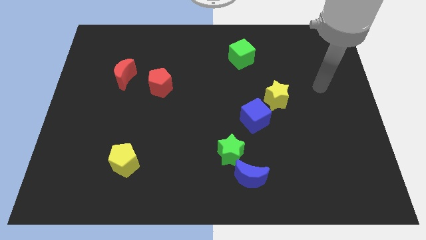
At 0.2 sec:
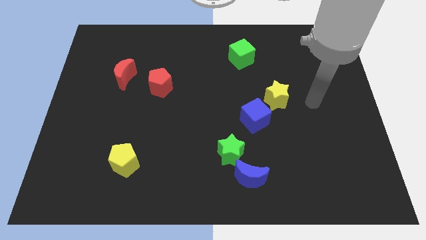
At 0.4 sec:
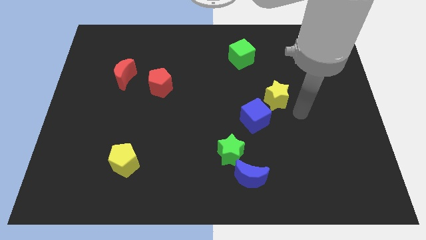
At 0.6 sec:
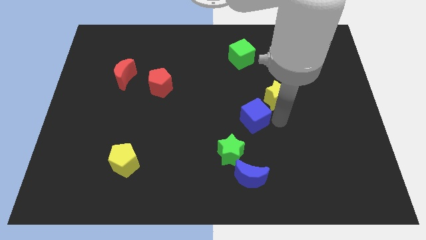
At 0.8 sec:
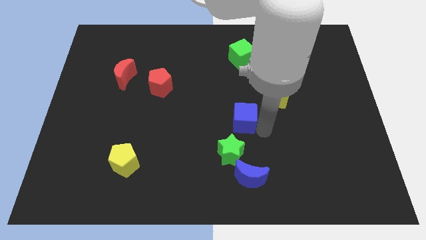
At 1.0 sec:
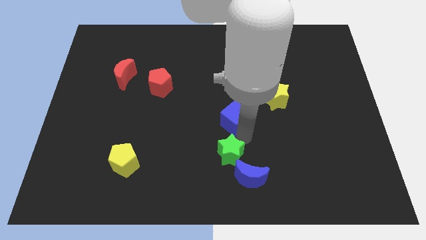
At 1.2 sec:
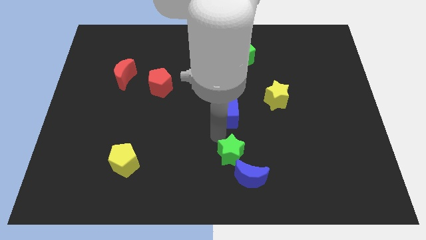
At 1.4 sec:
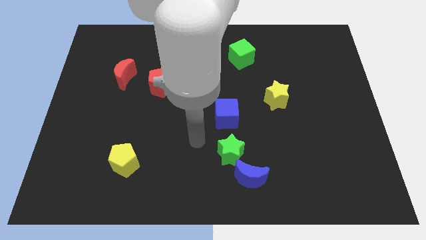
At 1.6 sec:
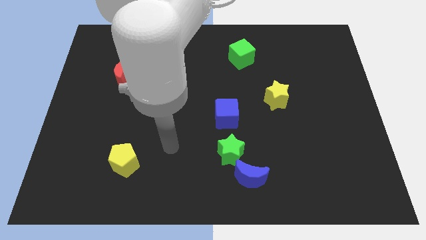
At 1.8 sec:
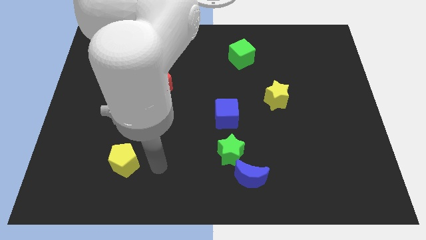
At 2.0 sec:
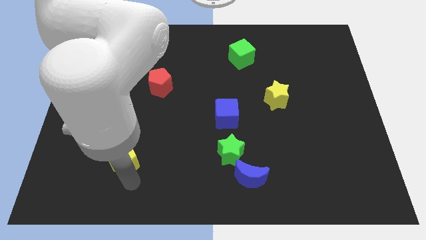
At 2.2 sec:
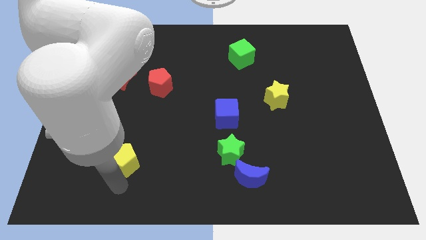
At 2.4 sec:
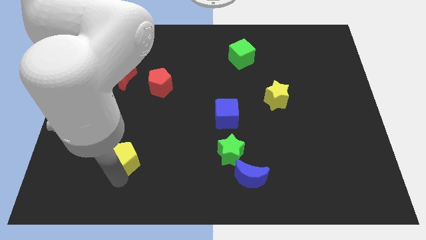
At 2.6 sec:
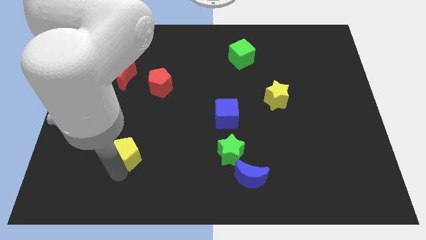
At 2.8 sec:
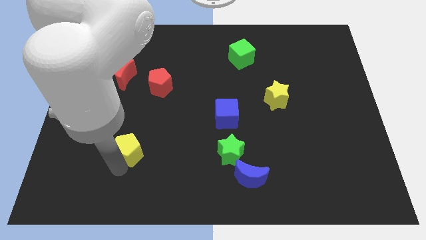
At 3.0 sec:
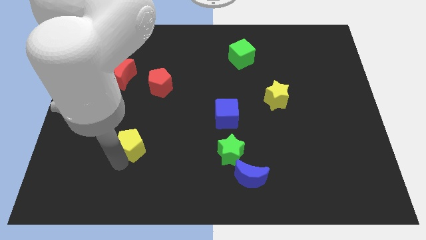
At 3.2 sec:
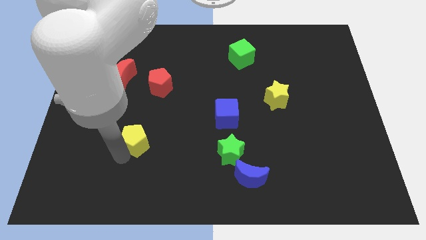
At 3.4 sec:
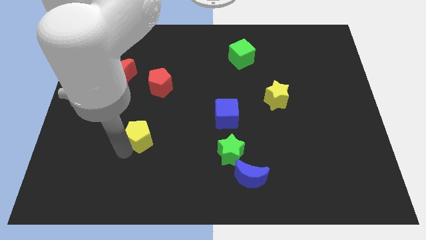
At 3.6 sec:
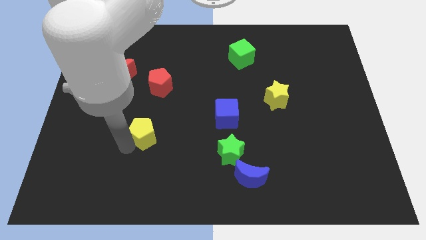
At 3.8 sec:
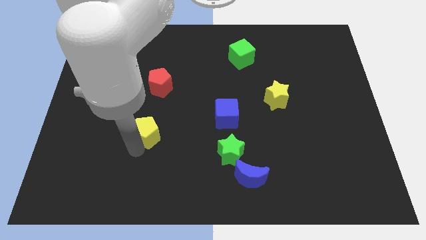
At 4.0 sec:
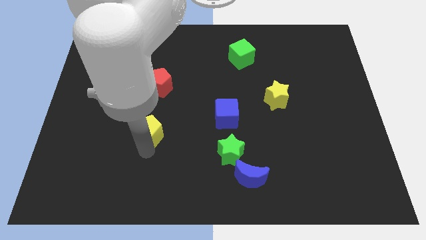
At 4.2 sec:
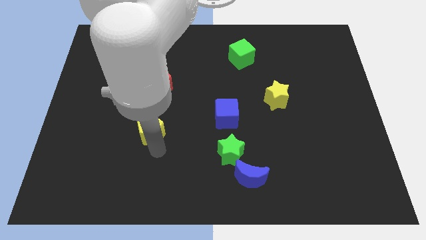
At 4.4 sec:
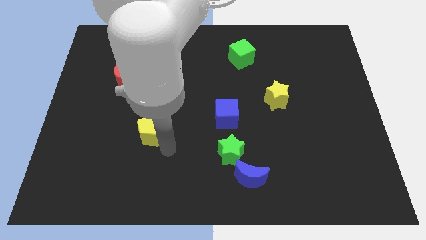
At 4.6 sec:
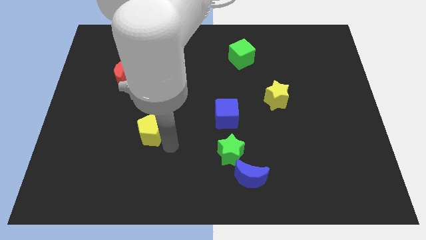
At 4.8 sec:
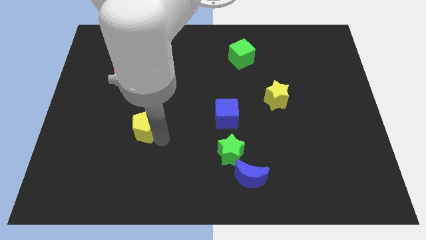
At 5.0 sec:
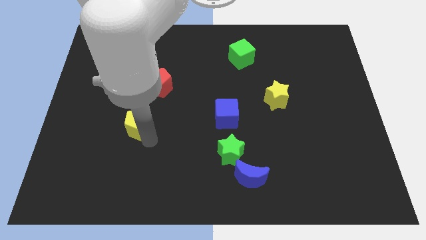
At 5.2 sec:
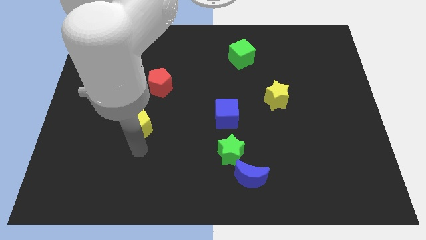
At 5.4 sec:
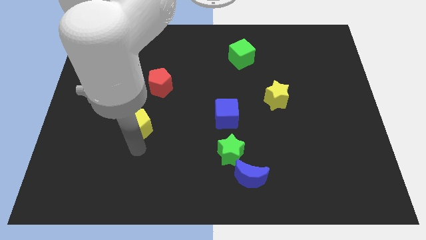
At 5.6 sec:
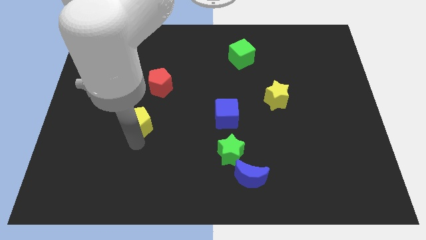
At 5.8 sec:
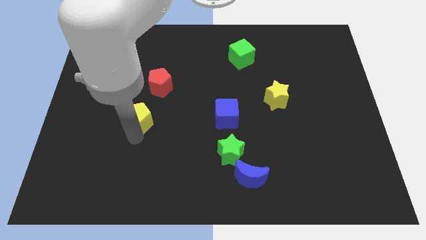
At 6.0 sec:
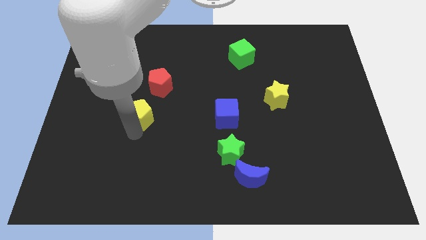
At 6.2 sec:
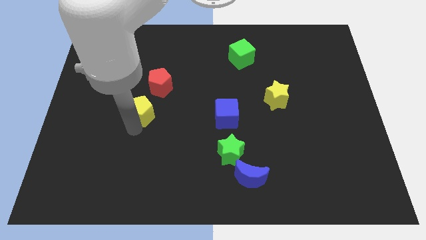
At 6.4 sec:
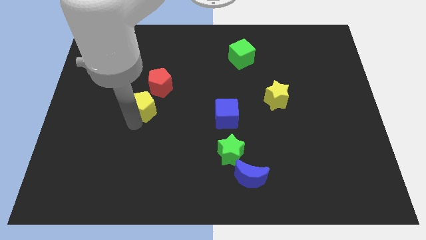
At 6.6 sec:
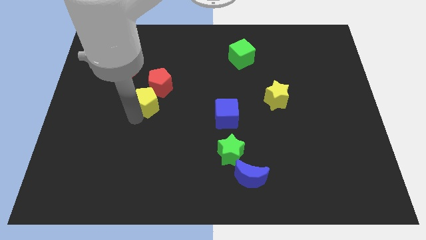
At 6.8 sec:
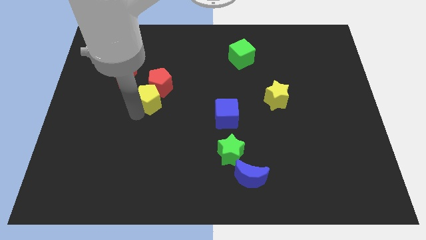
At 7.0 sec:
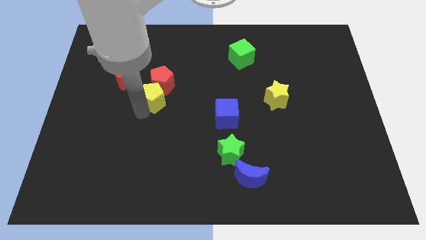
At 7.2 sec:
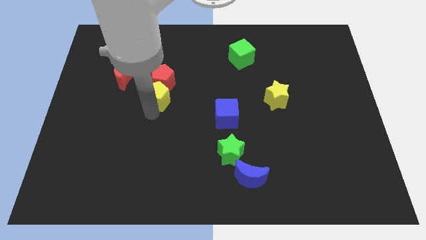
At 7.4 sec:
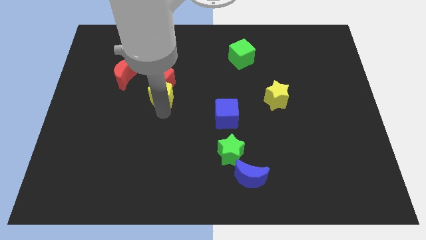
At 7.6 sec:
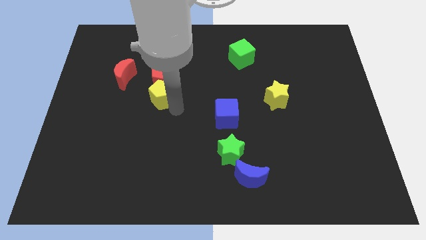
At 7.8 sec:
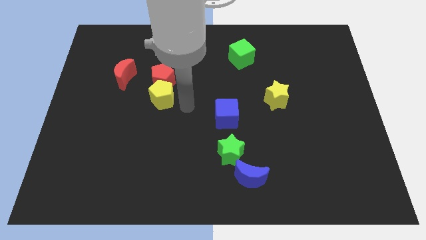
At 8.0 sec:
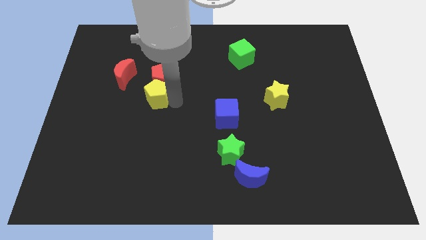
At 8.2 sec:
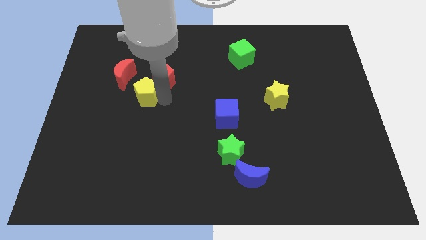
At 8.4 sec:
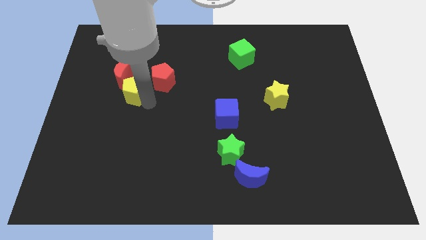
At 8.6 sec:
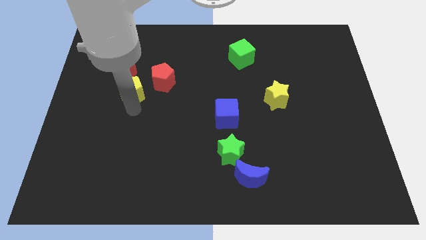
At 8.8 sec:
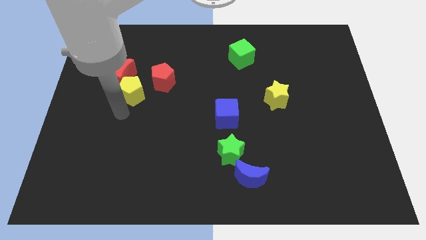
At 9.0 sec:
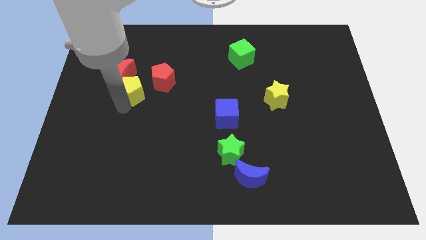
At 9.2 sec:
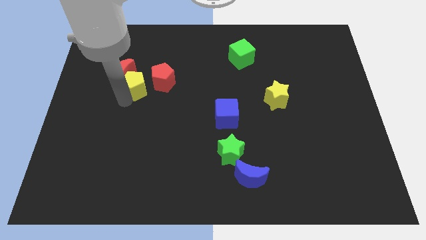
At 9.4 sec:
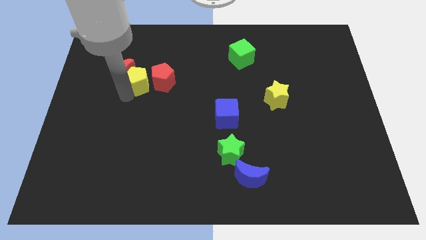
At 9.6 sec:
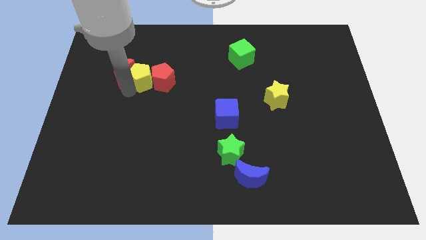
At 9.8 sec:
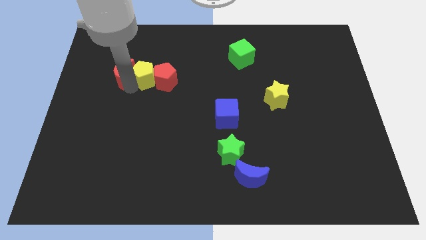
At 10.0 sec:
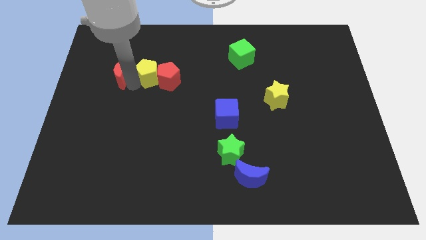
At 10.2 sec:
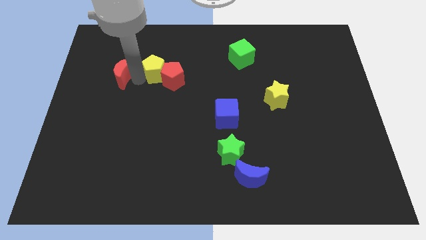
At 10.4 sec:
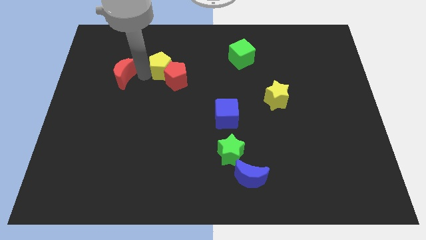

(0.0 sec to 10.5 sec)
push the yellow pentagon above the red pentagon

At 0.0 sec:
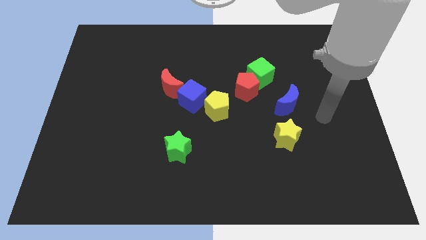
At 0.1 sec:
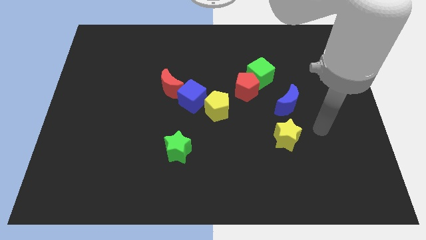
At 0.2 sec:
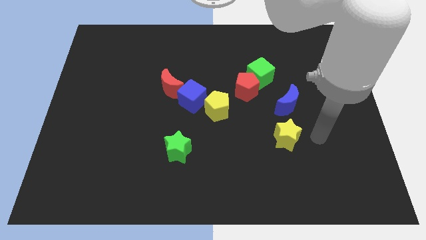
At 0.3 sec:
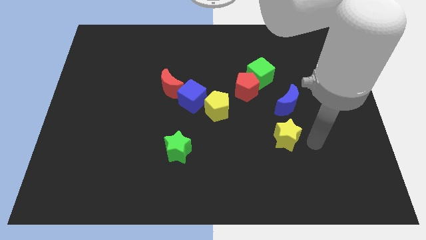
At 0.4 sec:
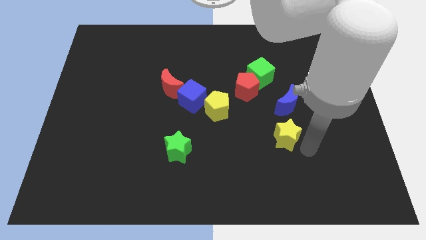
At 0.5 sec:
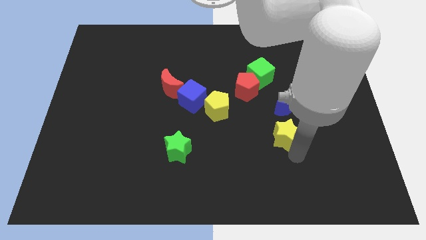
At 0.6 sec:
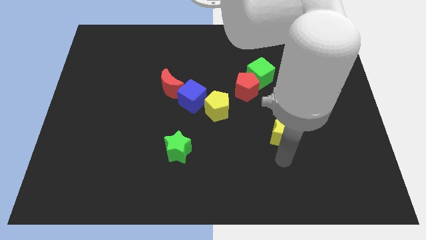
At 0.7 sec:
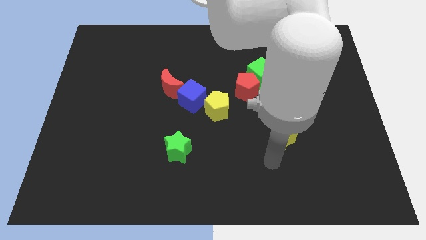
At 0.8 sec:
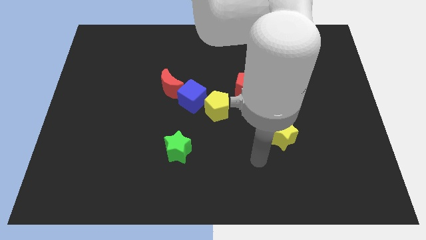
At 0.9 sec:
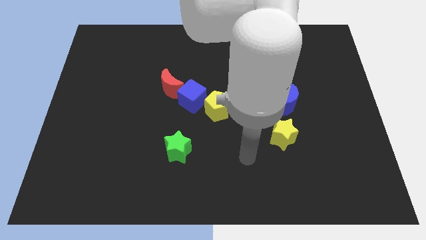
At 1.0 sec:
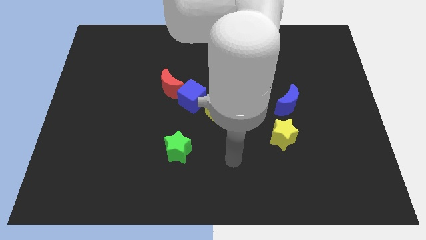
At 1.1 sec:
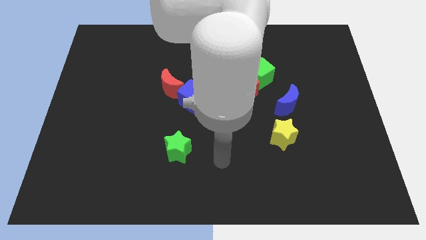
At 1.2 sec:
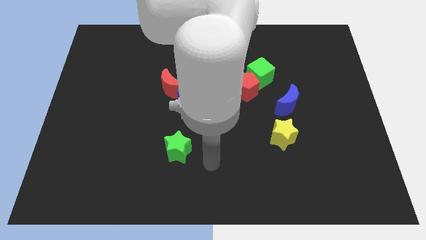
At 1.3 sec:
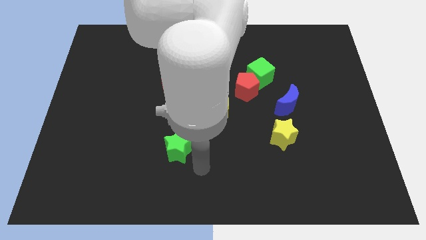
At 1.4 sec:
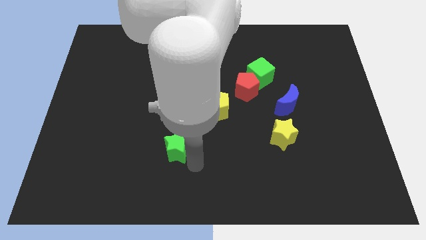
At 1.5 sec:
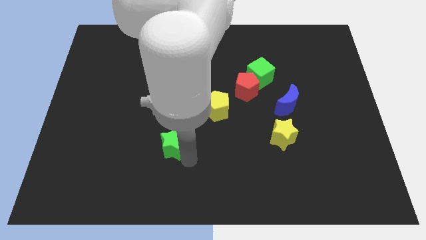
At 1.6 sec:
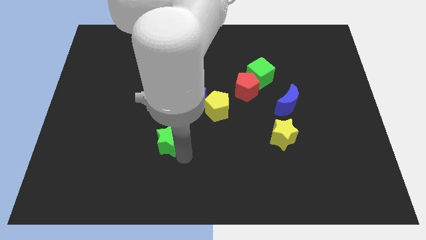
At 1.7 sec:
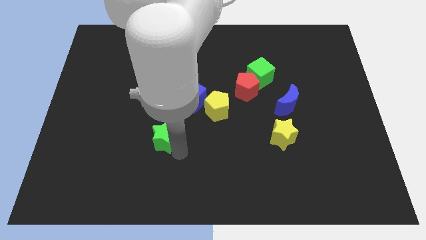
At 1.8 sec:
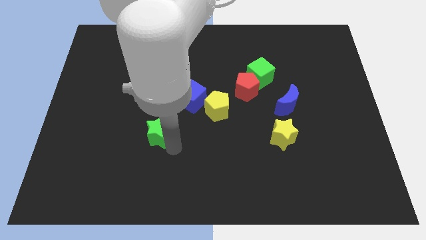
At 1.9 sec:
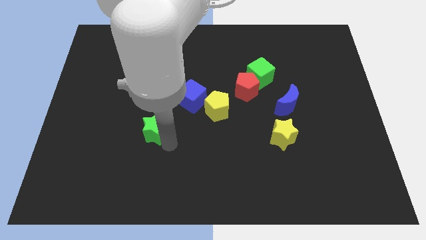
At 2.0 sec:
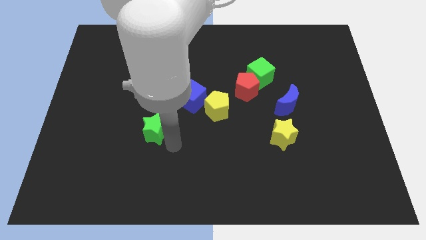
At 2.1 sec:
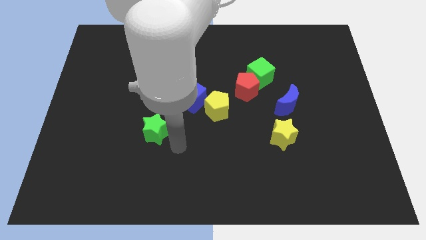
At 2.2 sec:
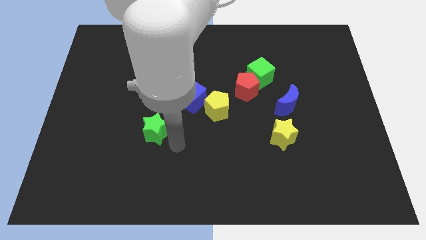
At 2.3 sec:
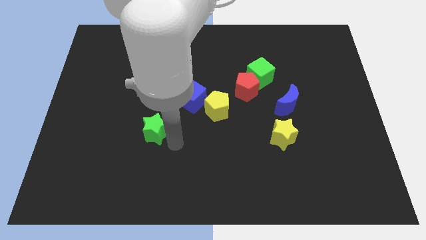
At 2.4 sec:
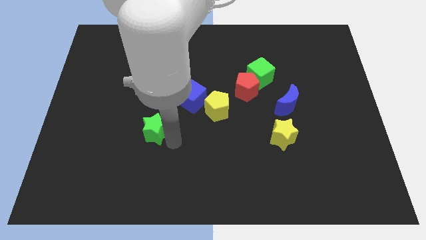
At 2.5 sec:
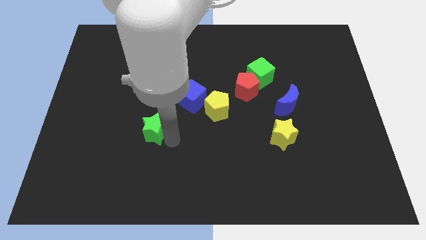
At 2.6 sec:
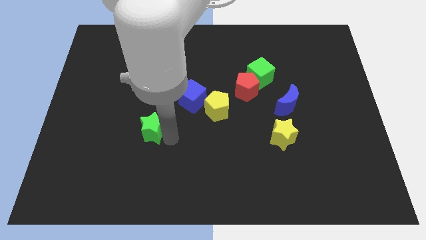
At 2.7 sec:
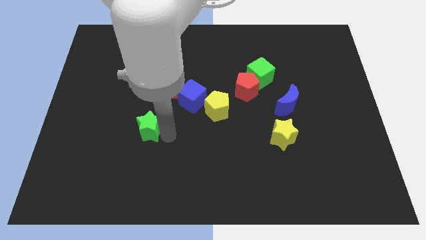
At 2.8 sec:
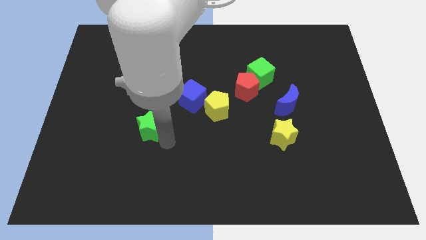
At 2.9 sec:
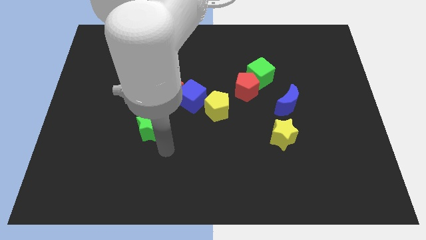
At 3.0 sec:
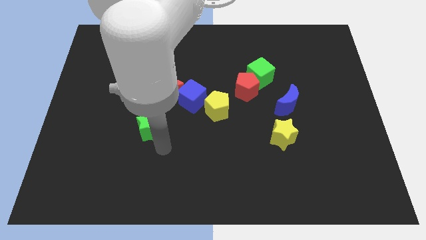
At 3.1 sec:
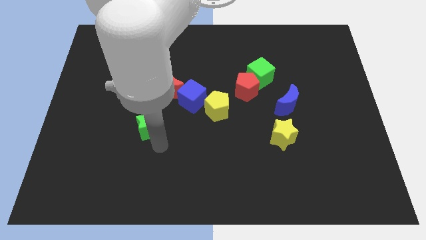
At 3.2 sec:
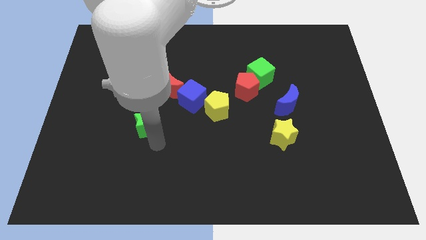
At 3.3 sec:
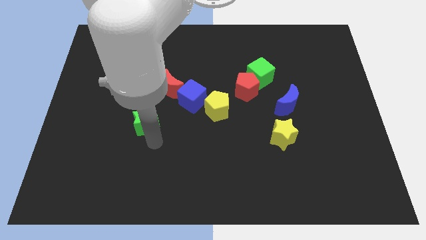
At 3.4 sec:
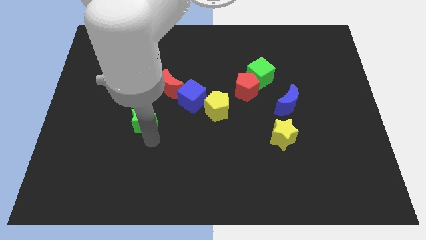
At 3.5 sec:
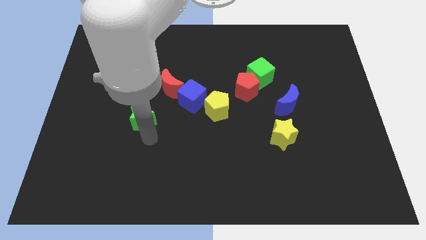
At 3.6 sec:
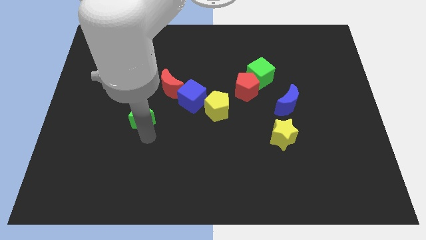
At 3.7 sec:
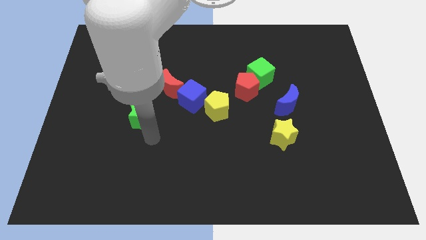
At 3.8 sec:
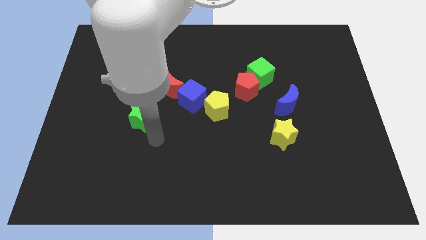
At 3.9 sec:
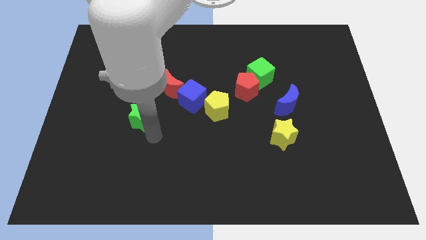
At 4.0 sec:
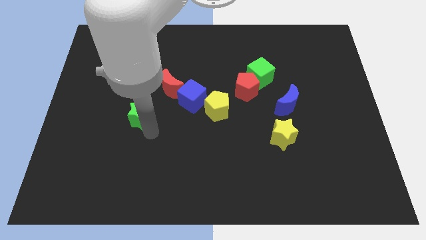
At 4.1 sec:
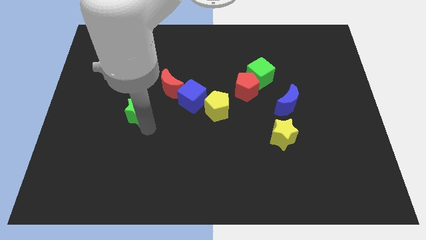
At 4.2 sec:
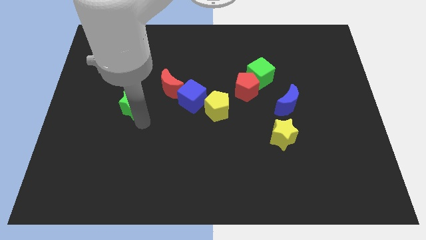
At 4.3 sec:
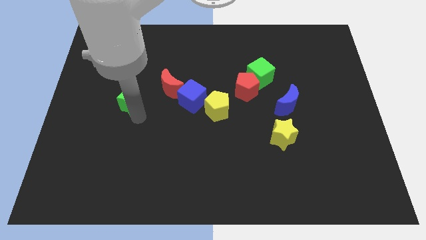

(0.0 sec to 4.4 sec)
move the green star to the left of the red moon
